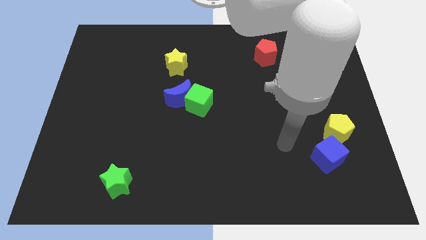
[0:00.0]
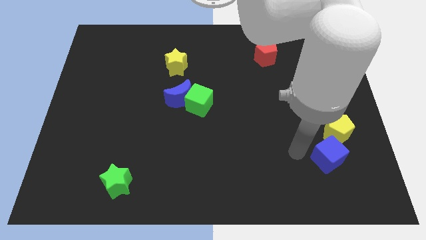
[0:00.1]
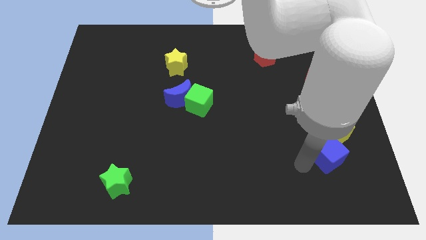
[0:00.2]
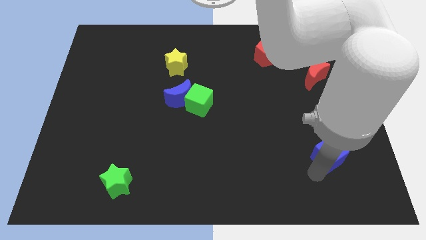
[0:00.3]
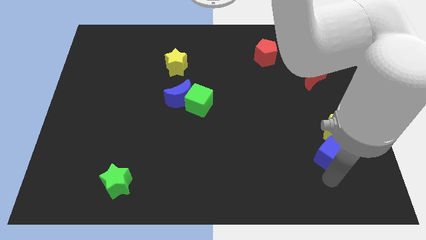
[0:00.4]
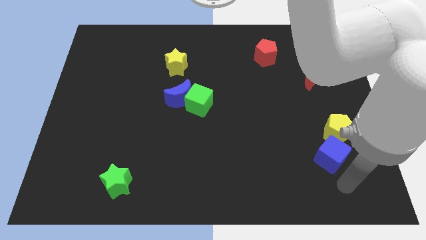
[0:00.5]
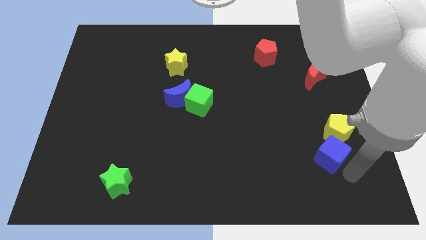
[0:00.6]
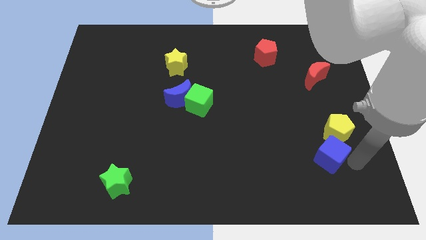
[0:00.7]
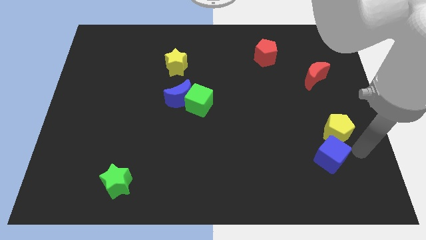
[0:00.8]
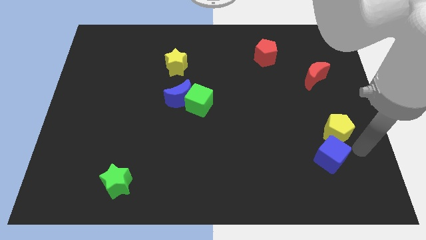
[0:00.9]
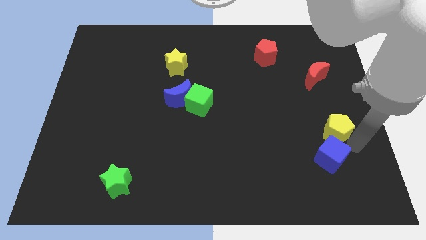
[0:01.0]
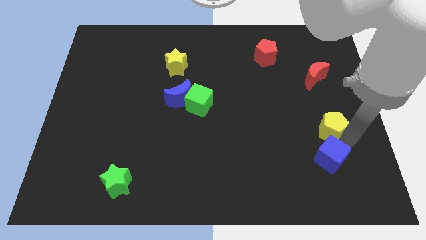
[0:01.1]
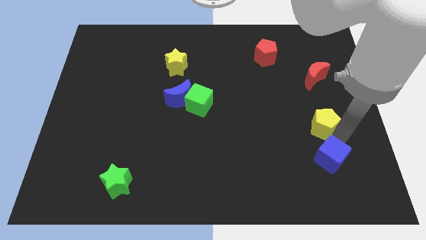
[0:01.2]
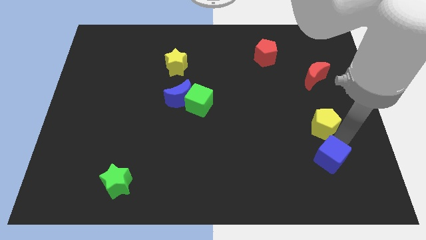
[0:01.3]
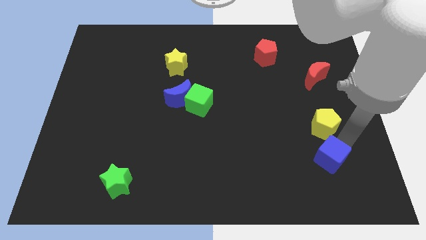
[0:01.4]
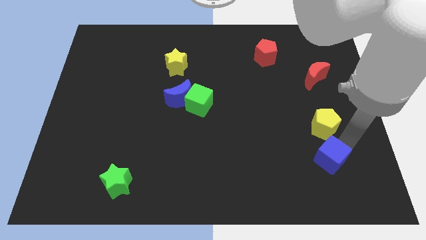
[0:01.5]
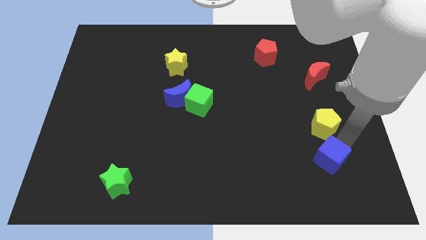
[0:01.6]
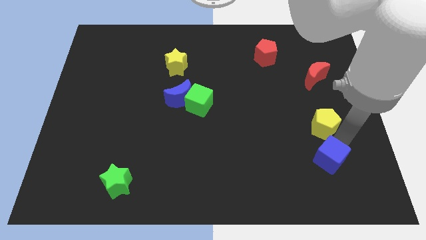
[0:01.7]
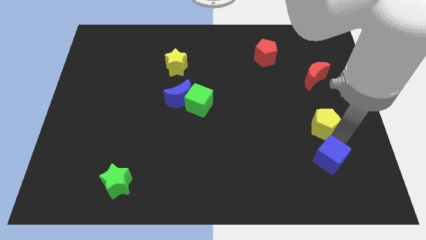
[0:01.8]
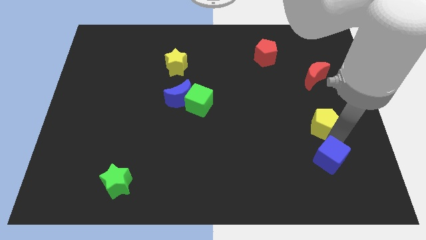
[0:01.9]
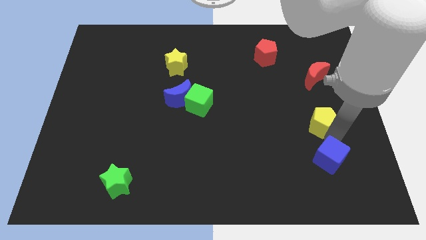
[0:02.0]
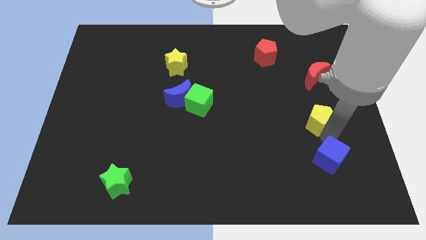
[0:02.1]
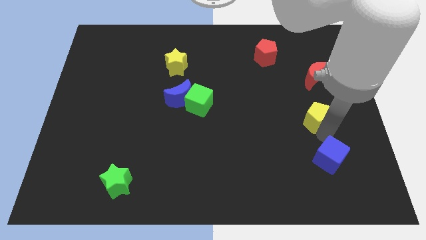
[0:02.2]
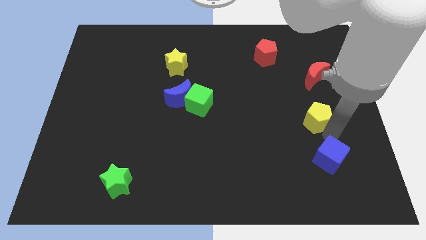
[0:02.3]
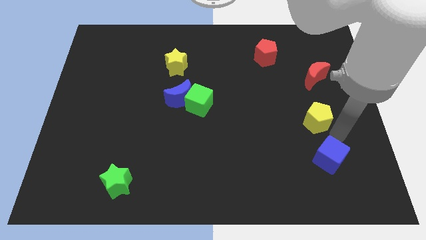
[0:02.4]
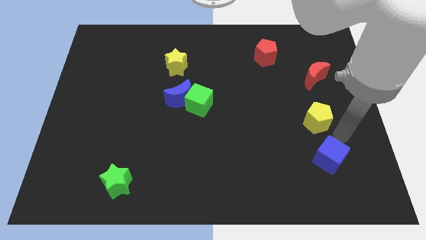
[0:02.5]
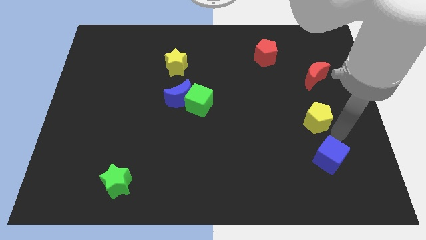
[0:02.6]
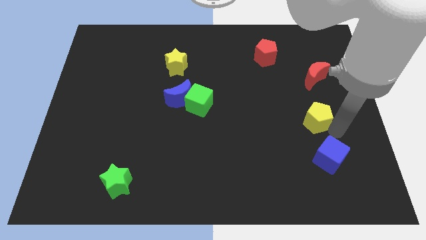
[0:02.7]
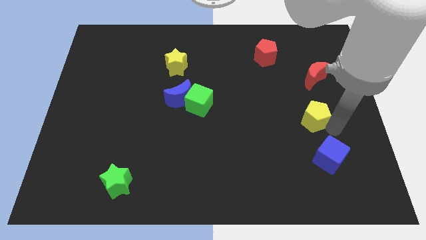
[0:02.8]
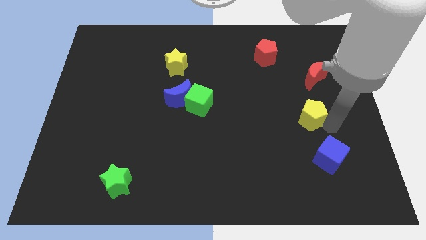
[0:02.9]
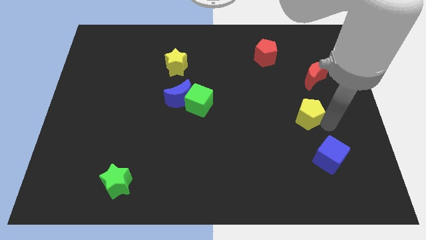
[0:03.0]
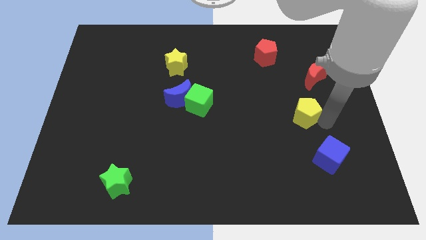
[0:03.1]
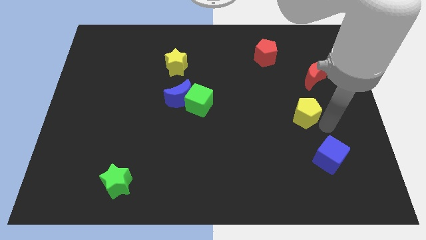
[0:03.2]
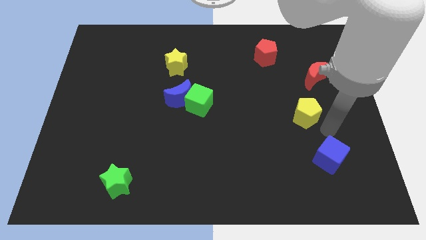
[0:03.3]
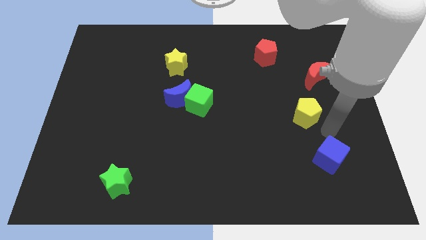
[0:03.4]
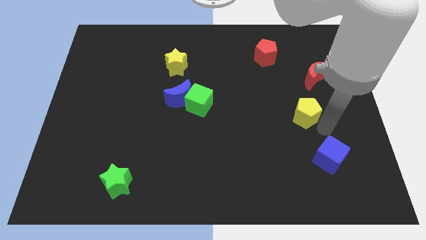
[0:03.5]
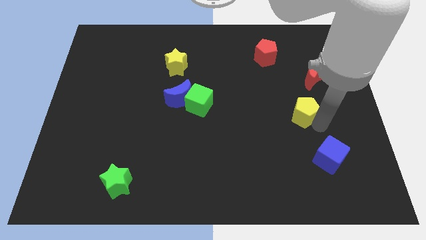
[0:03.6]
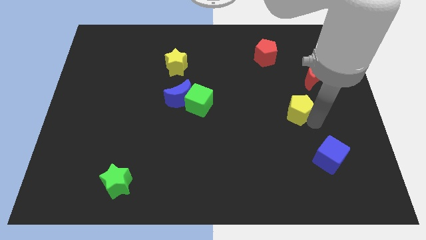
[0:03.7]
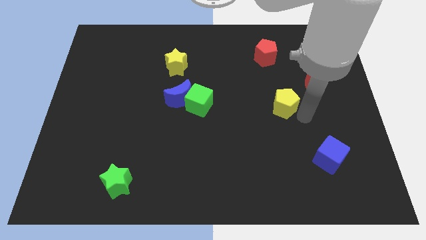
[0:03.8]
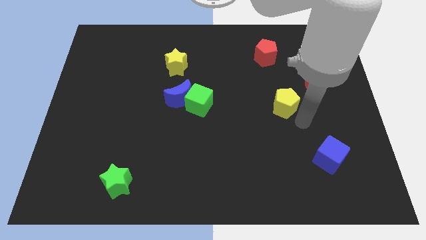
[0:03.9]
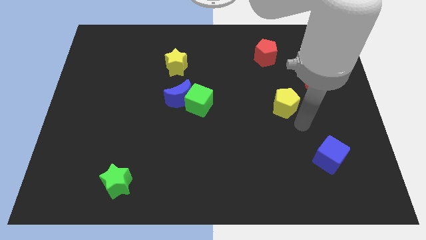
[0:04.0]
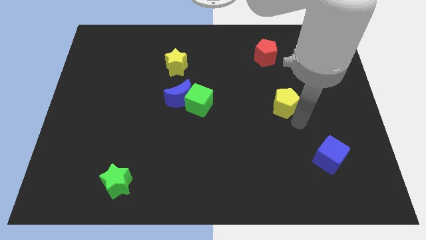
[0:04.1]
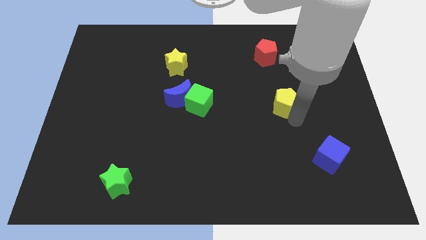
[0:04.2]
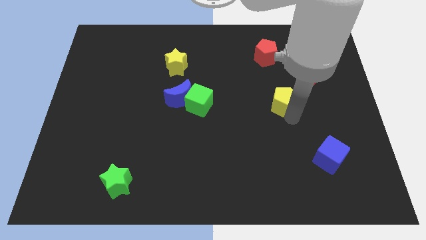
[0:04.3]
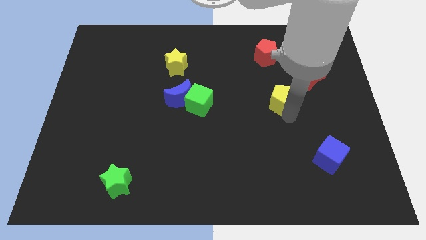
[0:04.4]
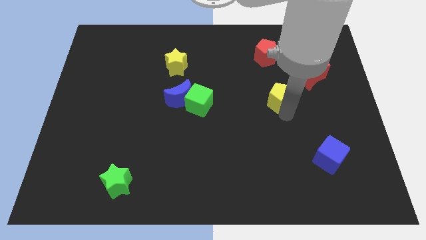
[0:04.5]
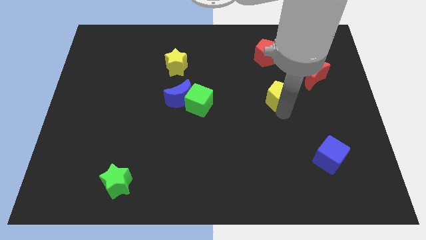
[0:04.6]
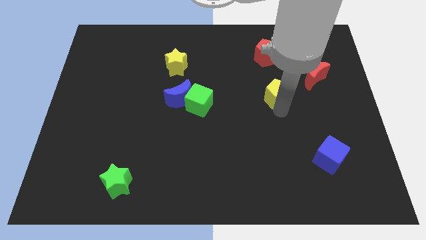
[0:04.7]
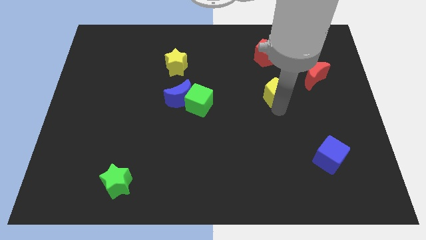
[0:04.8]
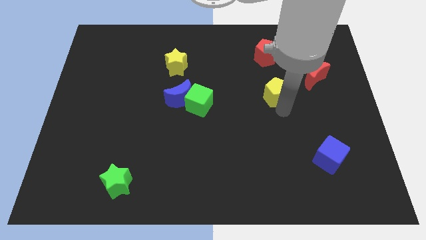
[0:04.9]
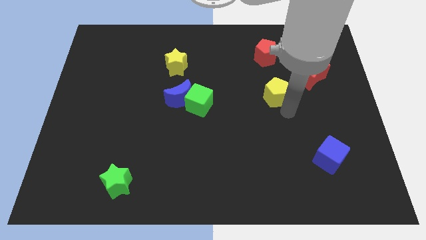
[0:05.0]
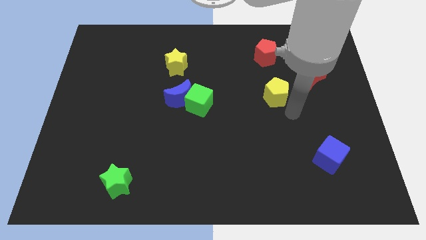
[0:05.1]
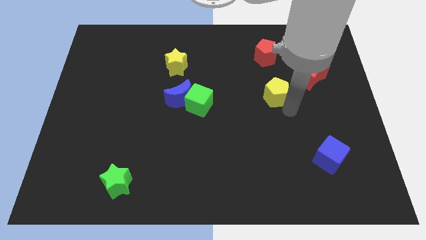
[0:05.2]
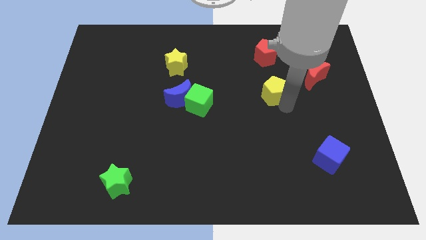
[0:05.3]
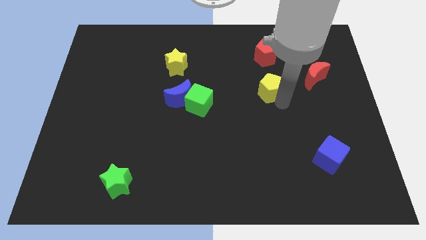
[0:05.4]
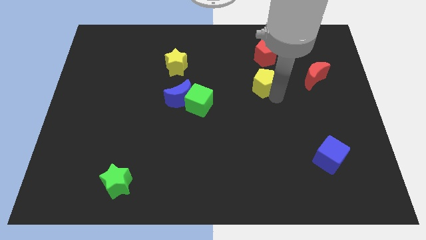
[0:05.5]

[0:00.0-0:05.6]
move the yellow pentagon diagonally up and to the left

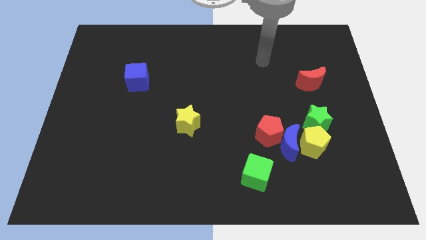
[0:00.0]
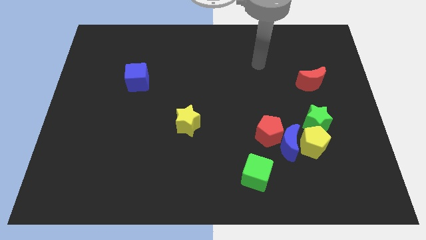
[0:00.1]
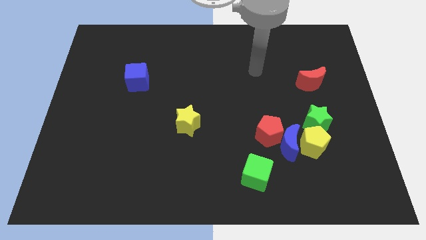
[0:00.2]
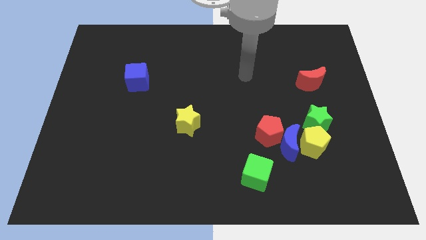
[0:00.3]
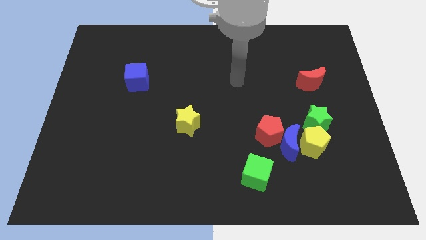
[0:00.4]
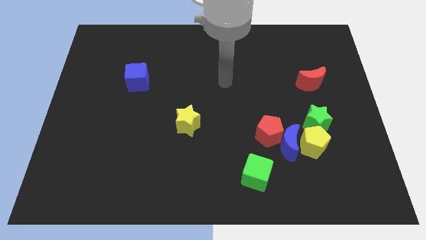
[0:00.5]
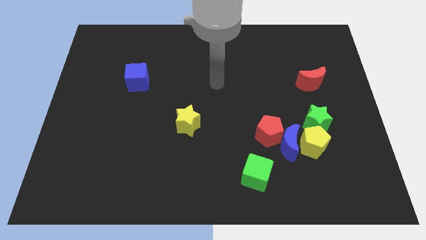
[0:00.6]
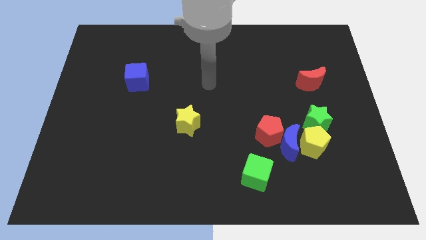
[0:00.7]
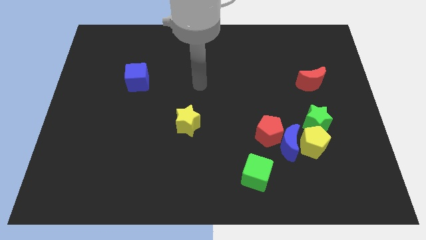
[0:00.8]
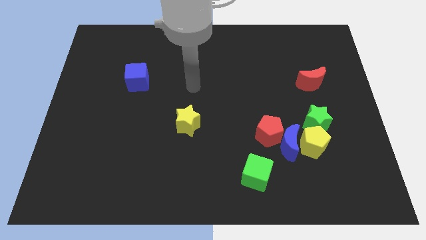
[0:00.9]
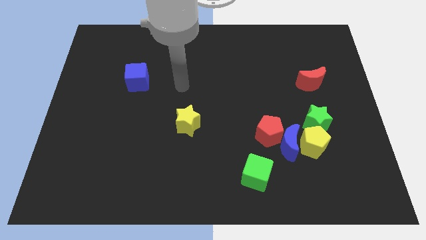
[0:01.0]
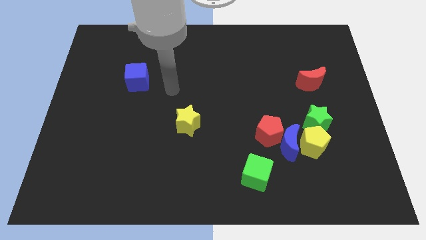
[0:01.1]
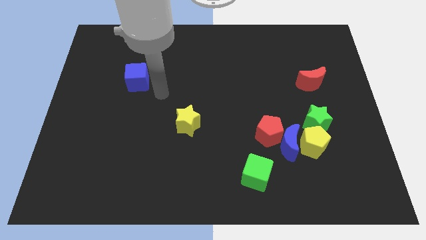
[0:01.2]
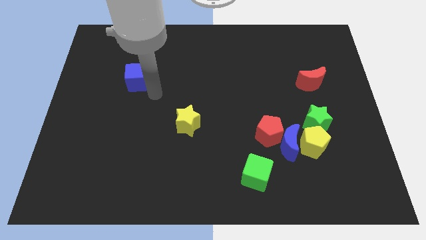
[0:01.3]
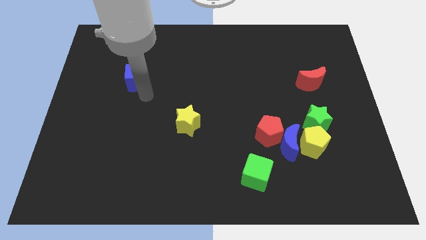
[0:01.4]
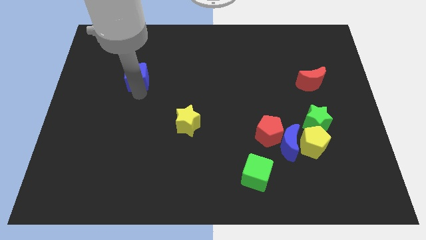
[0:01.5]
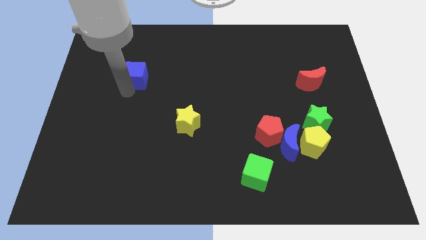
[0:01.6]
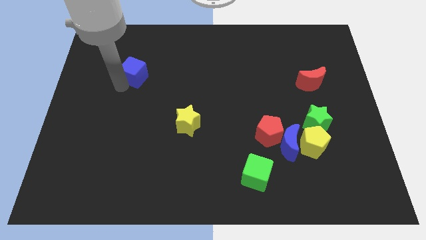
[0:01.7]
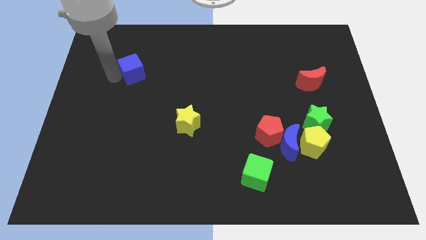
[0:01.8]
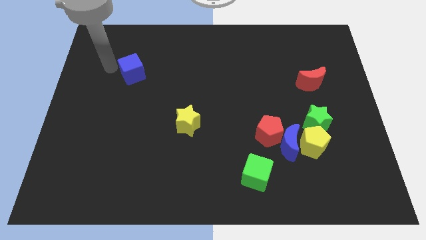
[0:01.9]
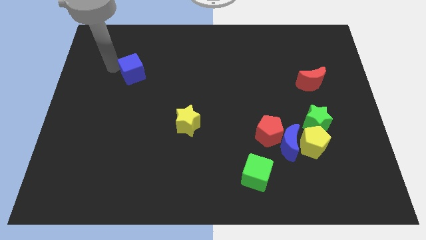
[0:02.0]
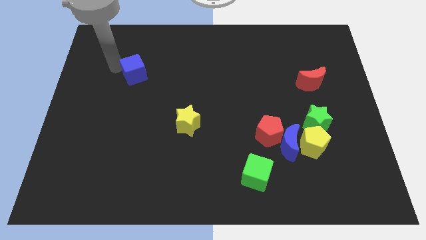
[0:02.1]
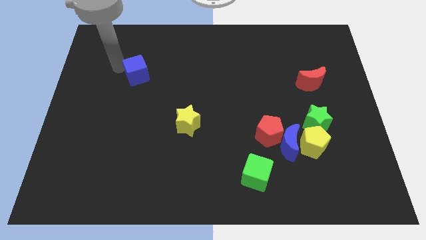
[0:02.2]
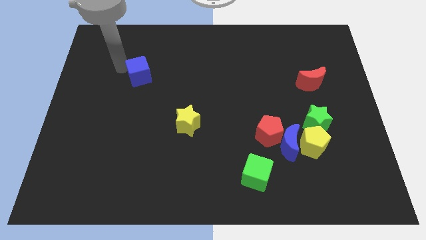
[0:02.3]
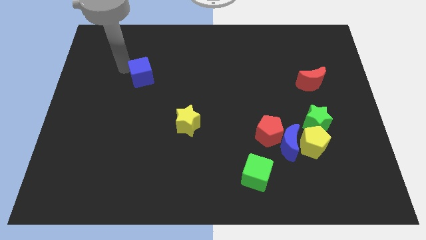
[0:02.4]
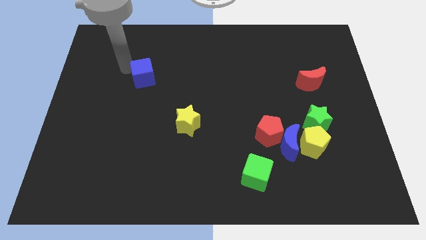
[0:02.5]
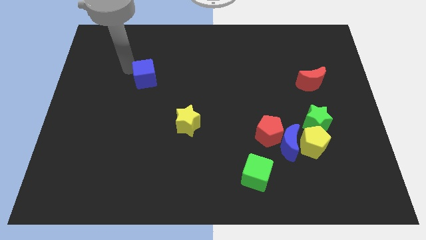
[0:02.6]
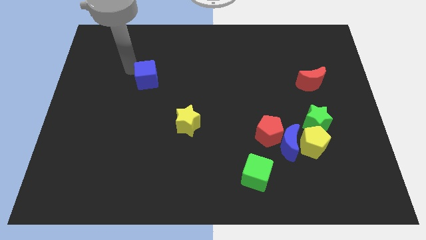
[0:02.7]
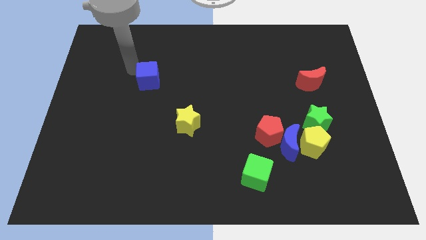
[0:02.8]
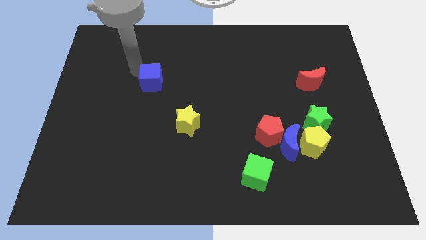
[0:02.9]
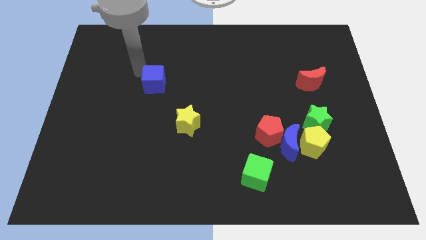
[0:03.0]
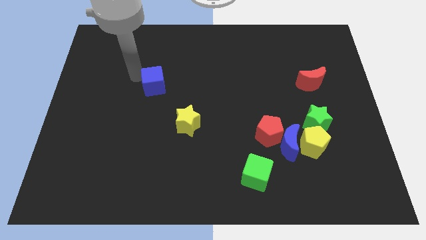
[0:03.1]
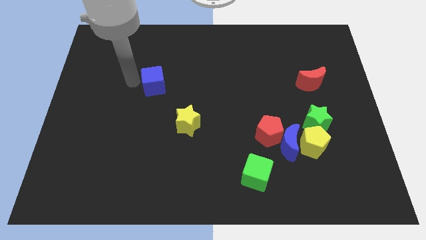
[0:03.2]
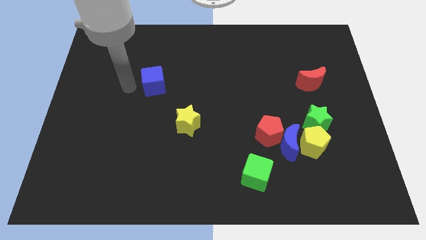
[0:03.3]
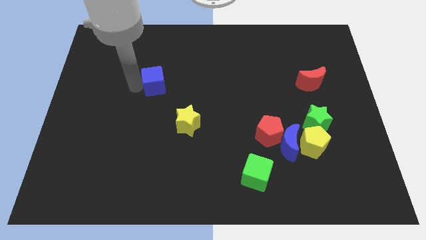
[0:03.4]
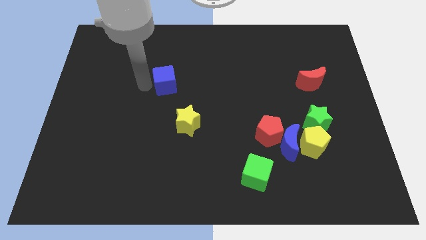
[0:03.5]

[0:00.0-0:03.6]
push the blue cube right a little bit
